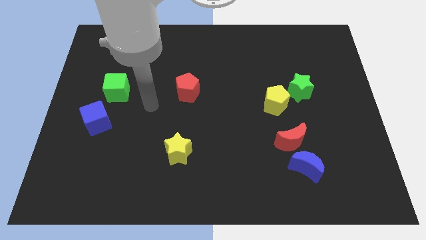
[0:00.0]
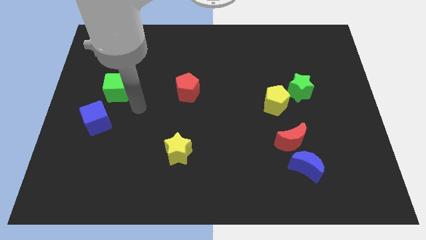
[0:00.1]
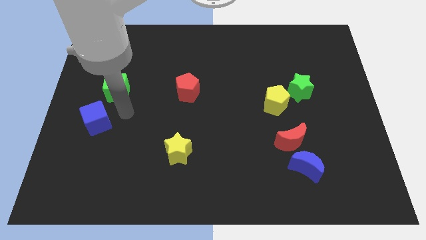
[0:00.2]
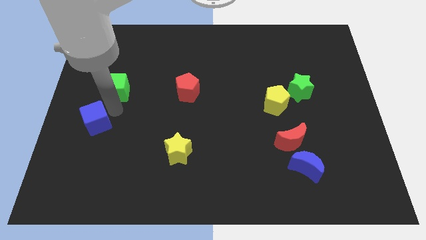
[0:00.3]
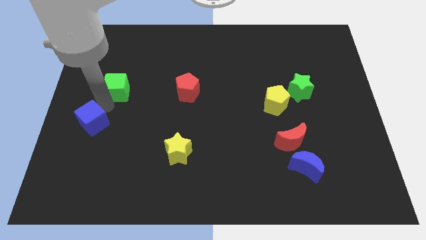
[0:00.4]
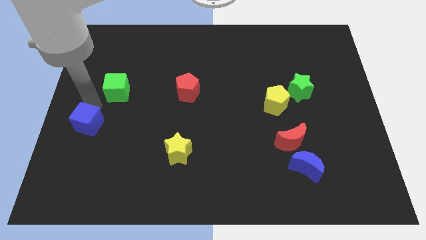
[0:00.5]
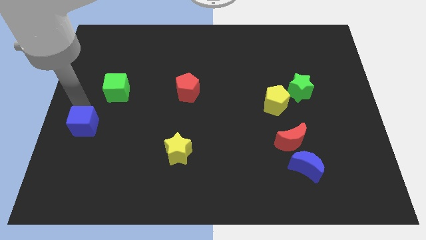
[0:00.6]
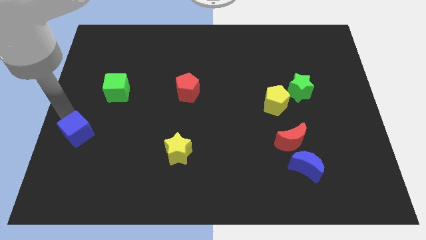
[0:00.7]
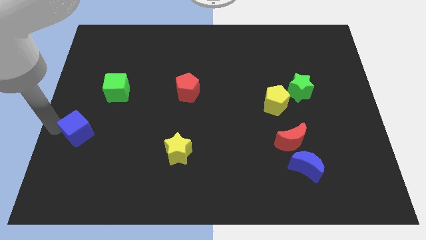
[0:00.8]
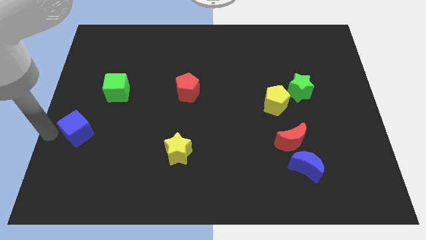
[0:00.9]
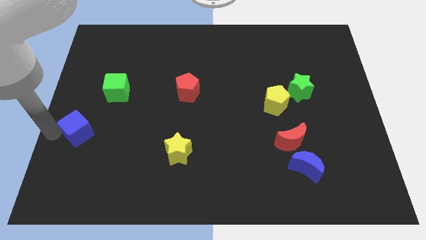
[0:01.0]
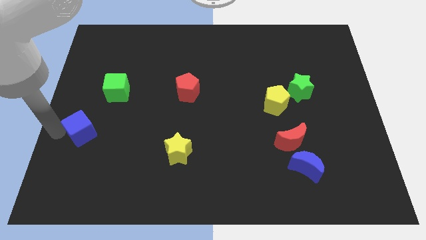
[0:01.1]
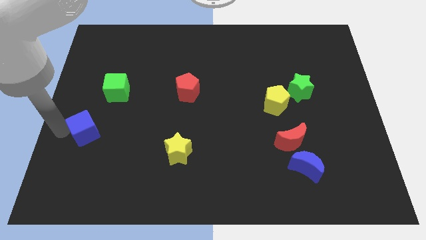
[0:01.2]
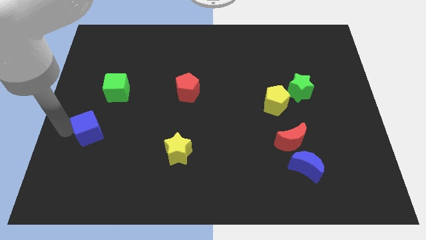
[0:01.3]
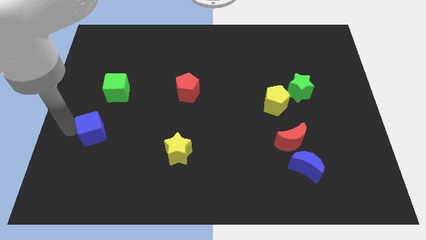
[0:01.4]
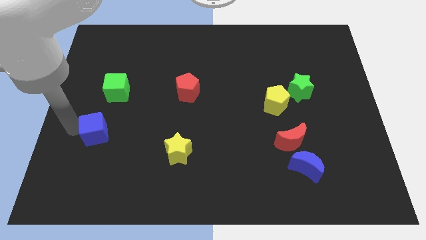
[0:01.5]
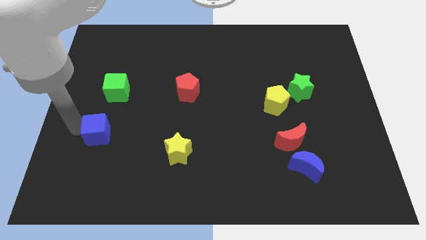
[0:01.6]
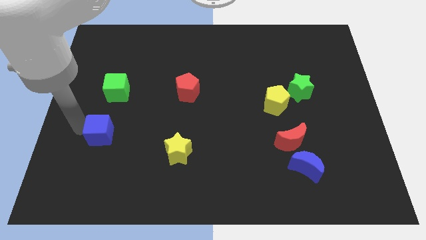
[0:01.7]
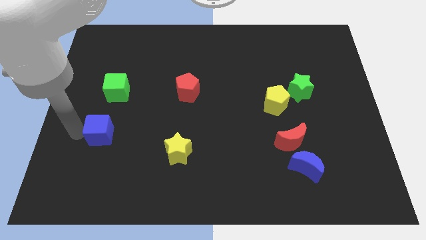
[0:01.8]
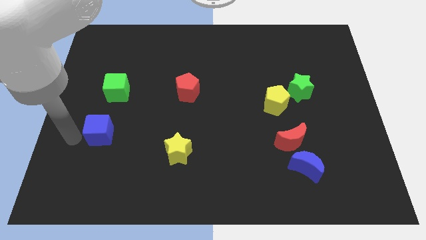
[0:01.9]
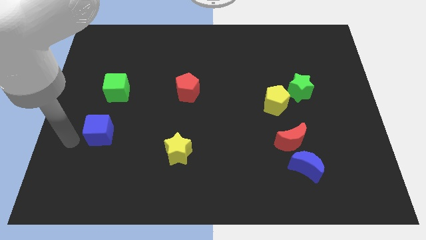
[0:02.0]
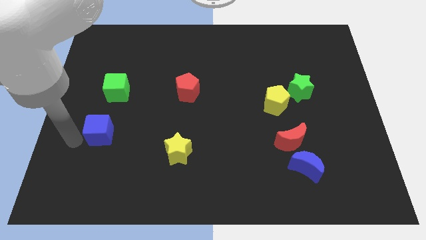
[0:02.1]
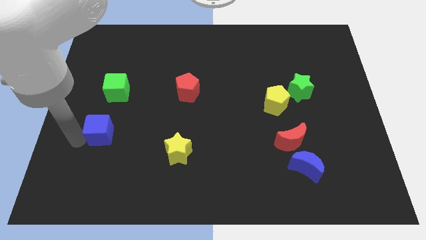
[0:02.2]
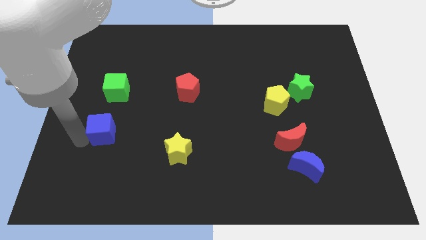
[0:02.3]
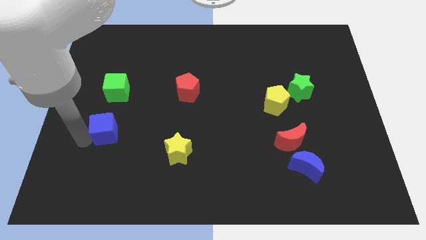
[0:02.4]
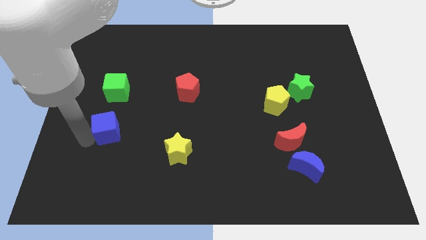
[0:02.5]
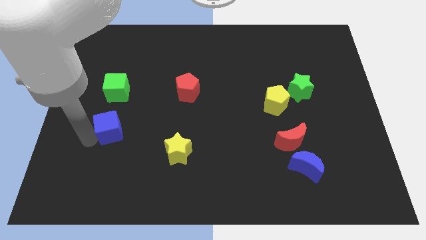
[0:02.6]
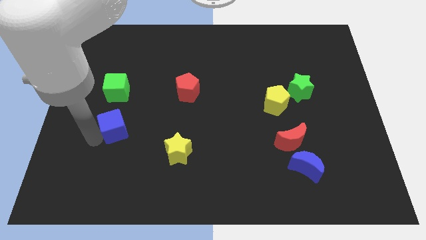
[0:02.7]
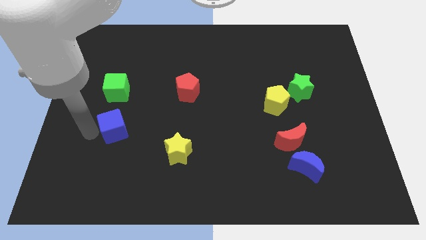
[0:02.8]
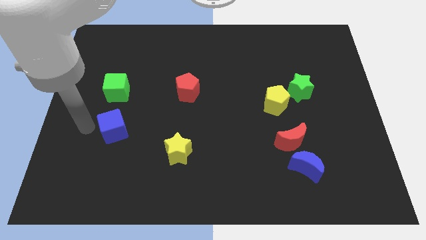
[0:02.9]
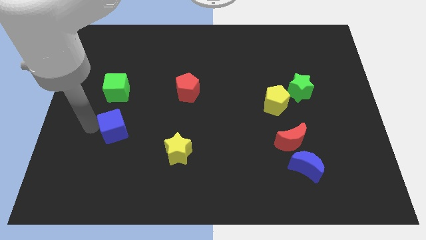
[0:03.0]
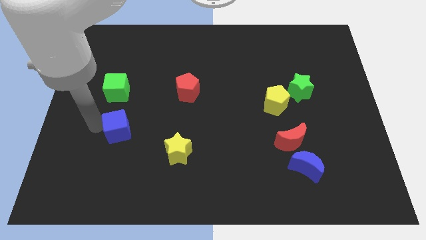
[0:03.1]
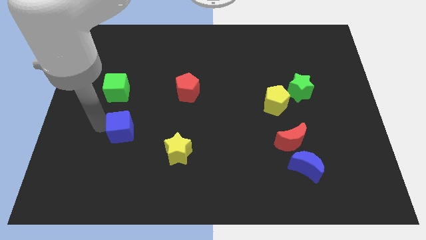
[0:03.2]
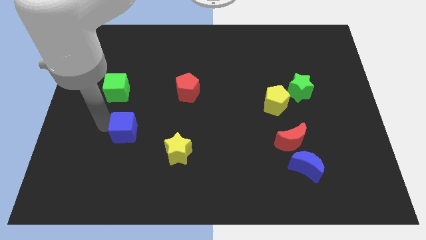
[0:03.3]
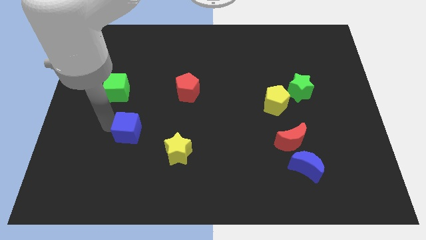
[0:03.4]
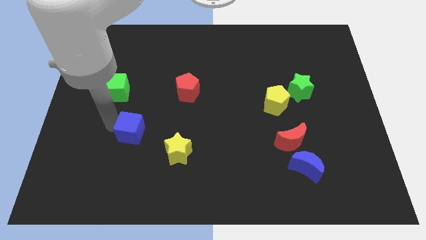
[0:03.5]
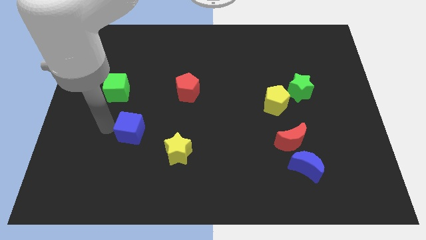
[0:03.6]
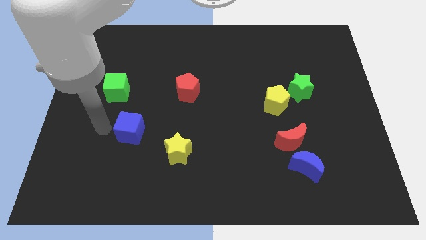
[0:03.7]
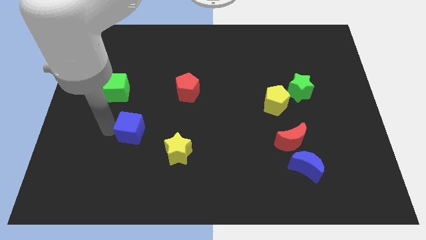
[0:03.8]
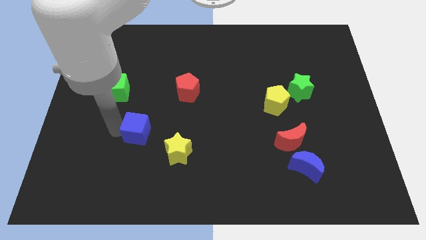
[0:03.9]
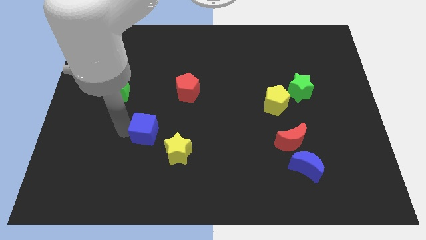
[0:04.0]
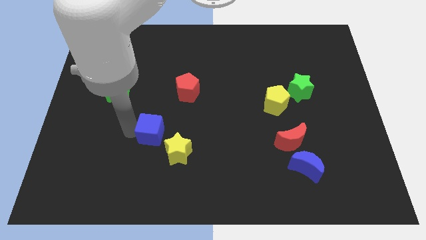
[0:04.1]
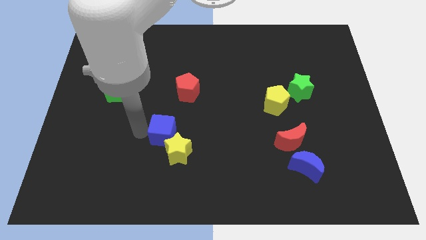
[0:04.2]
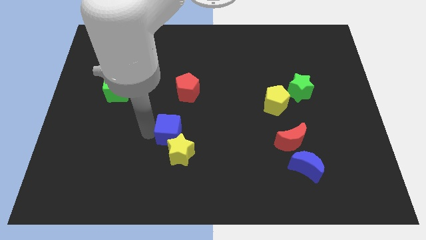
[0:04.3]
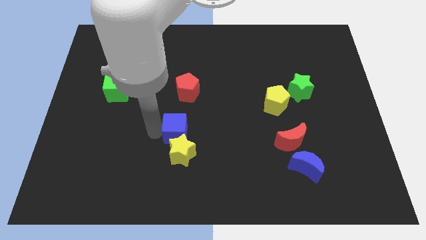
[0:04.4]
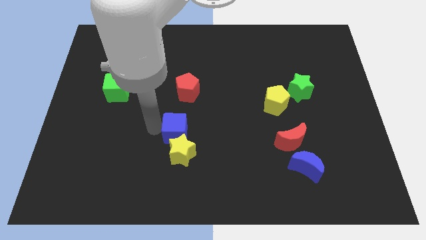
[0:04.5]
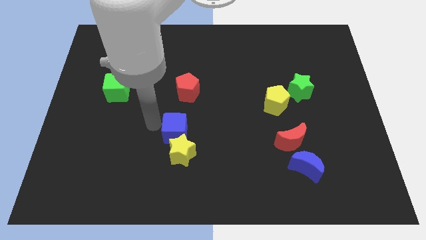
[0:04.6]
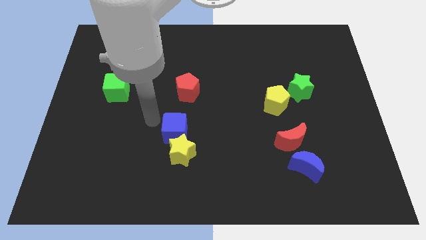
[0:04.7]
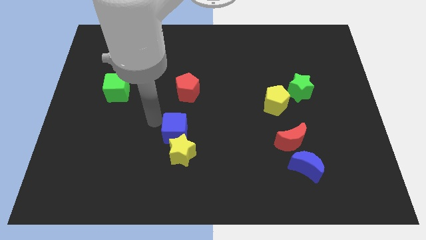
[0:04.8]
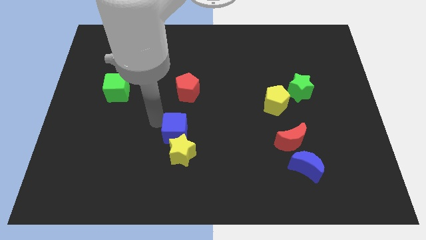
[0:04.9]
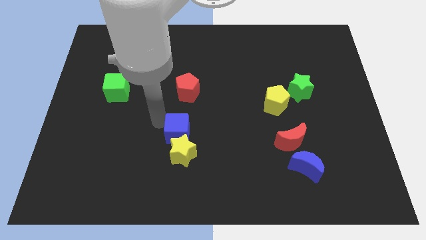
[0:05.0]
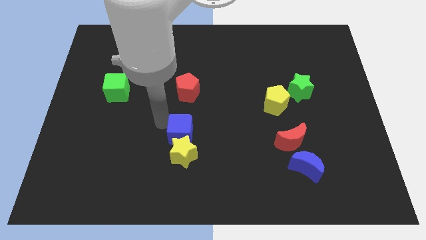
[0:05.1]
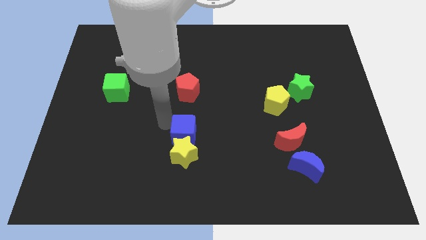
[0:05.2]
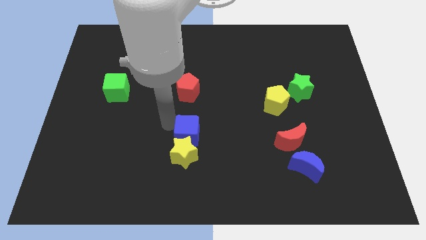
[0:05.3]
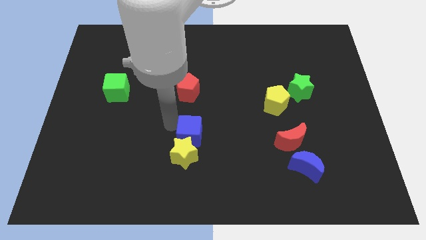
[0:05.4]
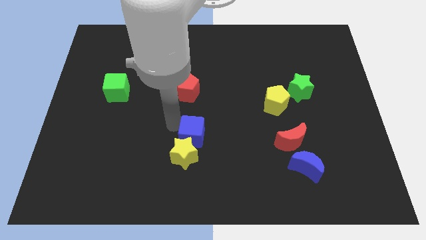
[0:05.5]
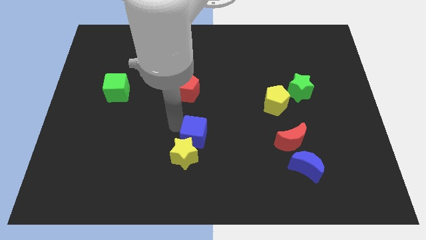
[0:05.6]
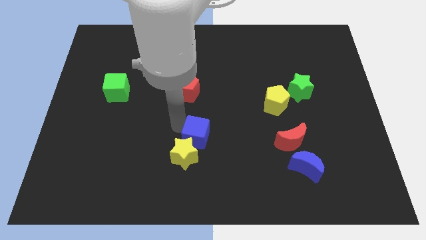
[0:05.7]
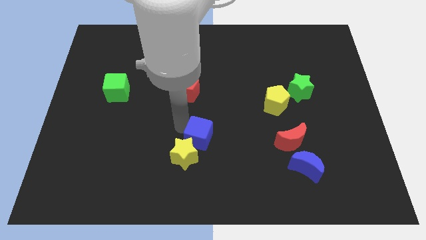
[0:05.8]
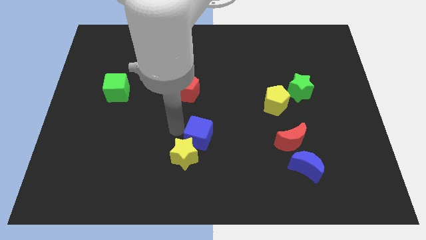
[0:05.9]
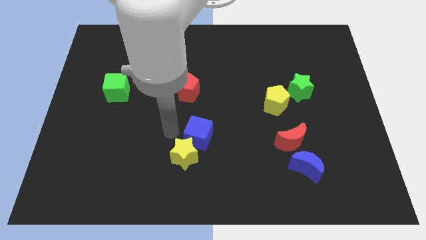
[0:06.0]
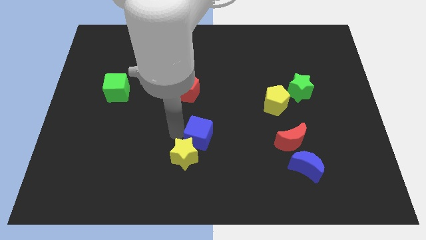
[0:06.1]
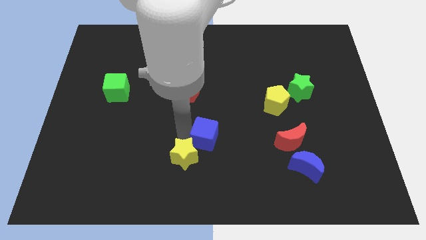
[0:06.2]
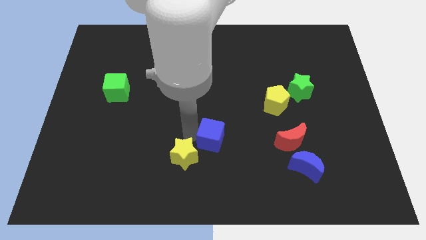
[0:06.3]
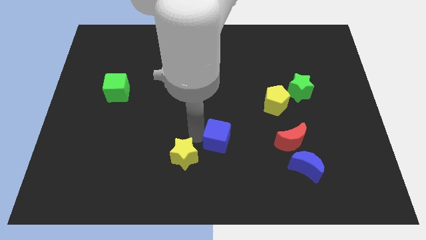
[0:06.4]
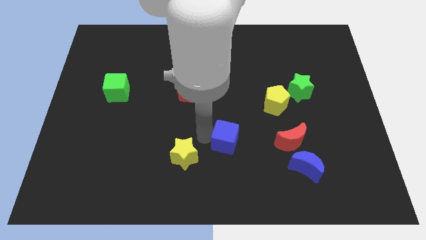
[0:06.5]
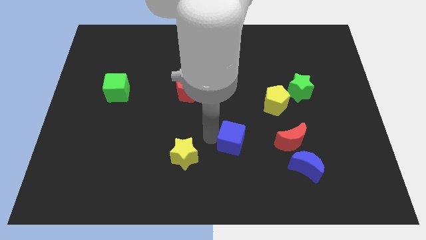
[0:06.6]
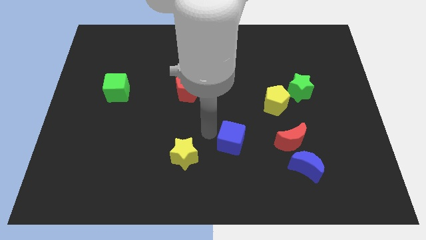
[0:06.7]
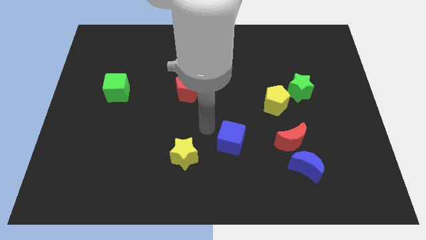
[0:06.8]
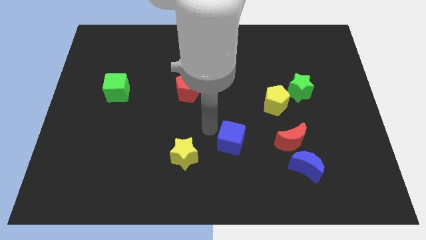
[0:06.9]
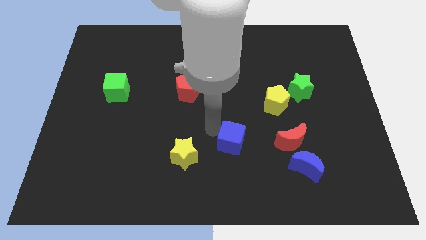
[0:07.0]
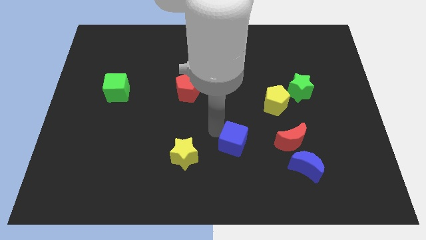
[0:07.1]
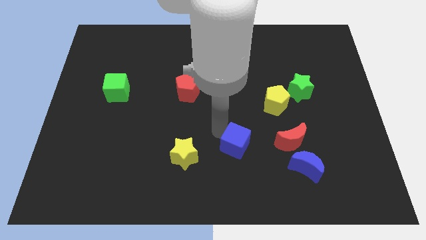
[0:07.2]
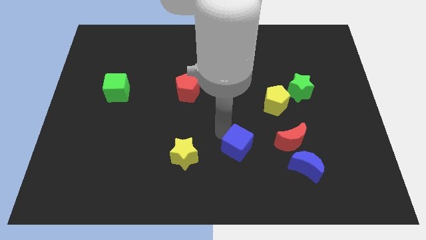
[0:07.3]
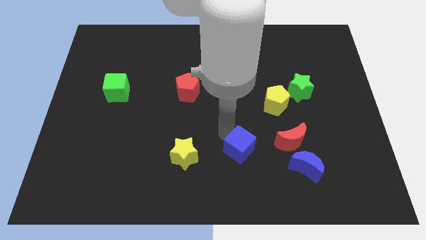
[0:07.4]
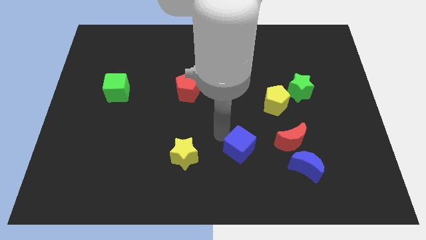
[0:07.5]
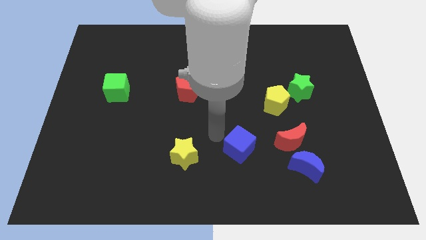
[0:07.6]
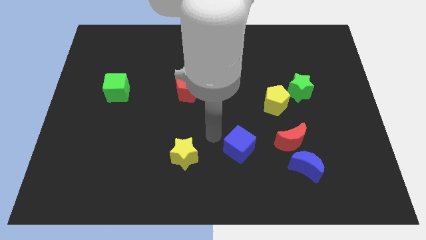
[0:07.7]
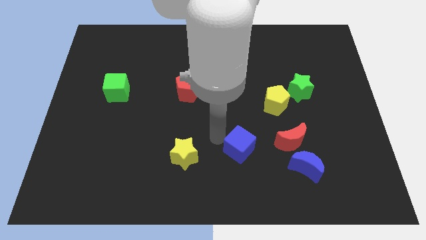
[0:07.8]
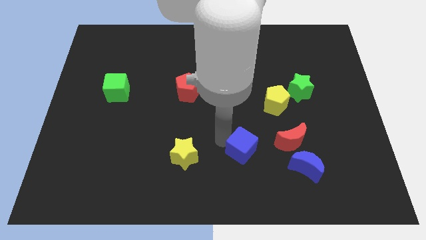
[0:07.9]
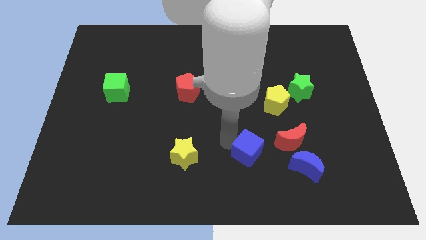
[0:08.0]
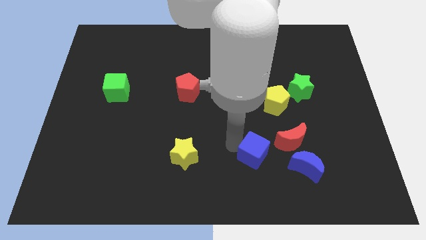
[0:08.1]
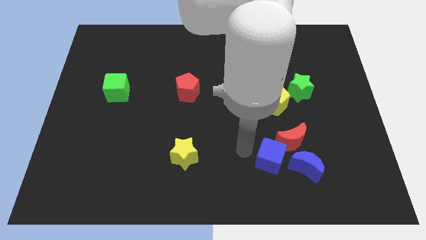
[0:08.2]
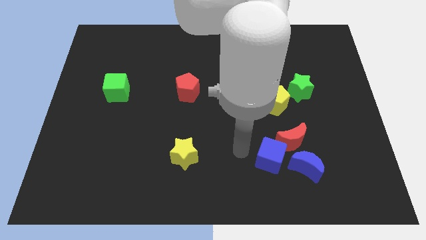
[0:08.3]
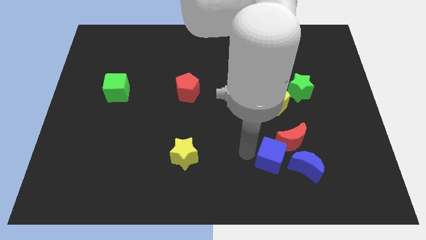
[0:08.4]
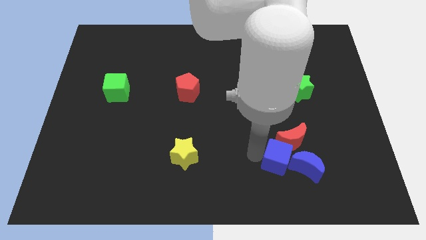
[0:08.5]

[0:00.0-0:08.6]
slide the blue cube next to the blue moon
